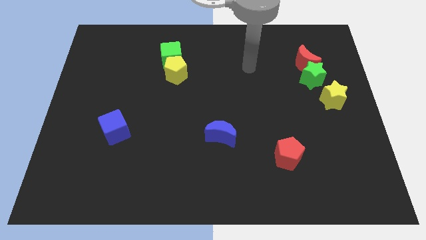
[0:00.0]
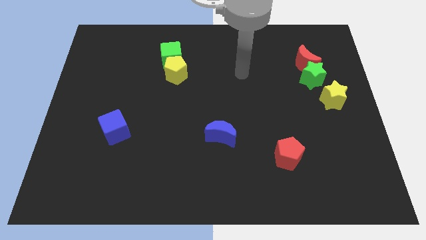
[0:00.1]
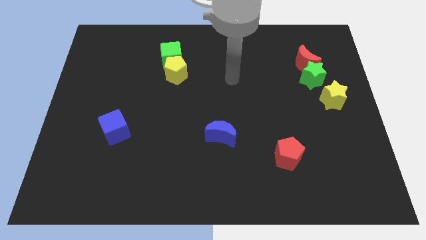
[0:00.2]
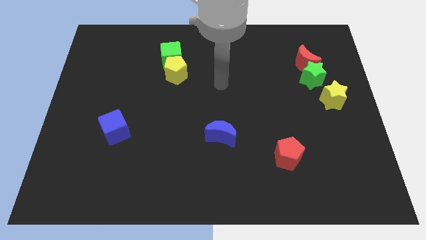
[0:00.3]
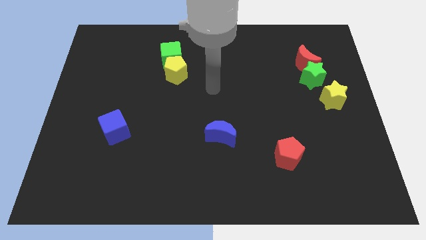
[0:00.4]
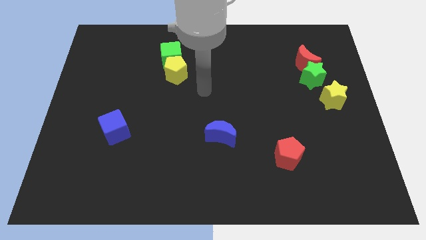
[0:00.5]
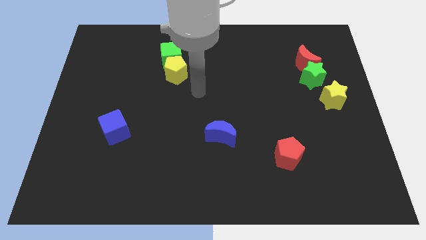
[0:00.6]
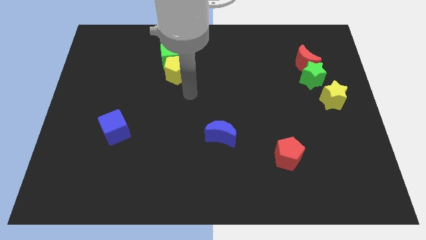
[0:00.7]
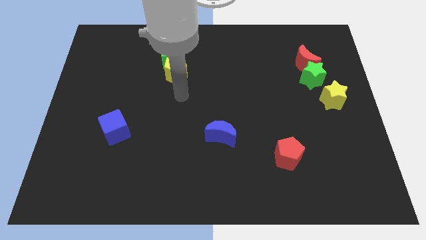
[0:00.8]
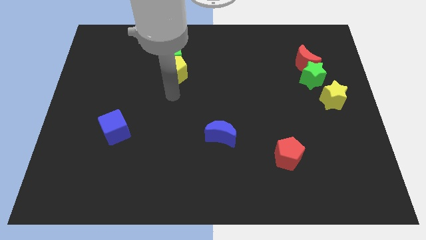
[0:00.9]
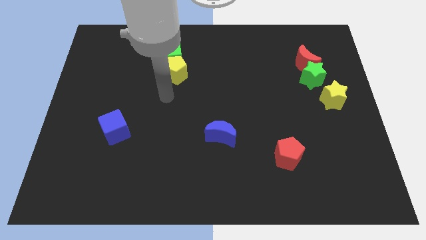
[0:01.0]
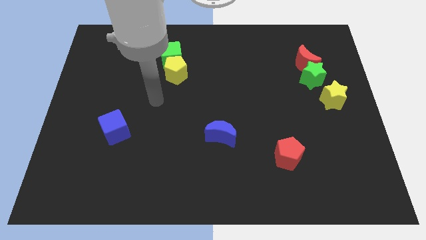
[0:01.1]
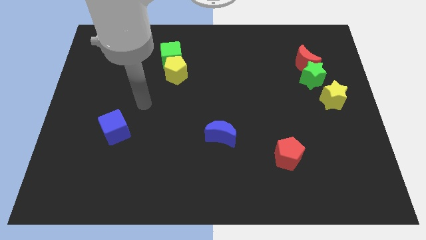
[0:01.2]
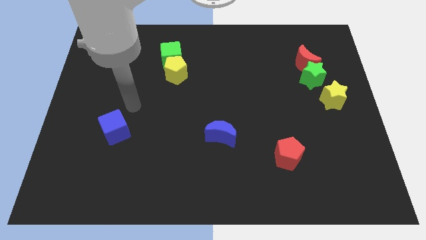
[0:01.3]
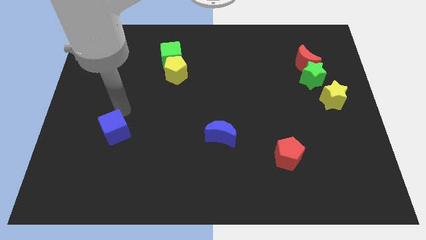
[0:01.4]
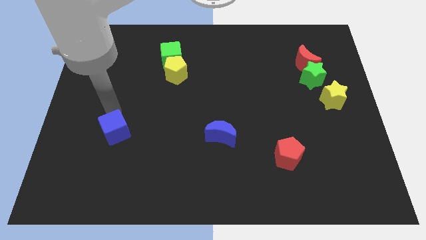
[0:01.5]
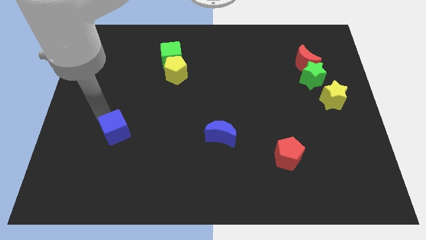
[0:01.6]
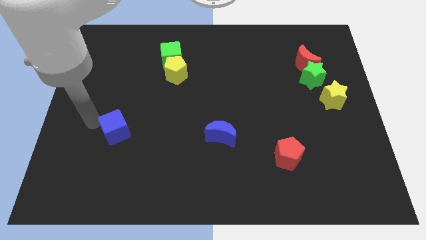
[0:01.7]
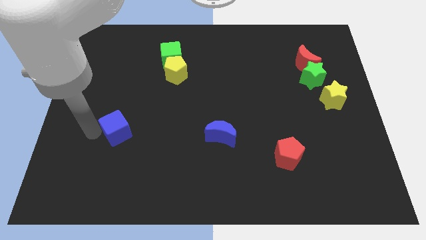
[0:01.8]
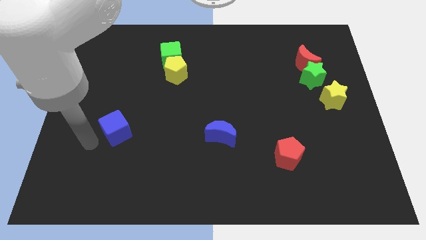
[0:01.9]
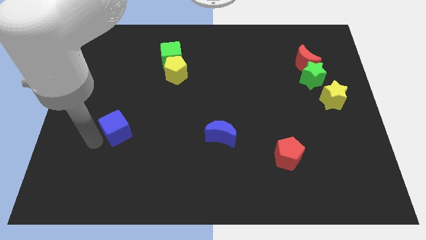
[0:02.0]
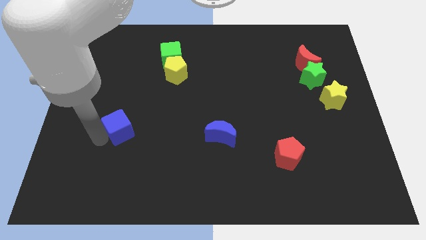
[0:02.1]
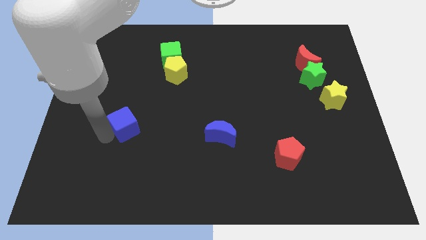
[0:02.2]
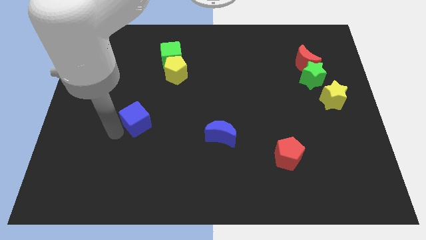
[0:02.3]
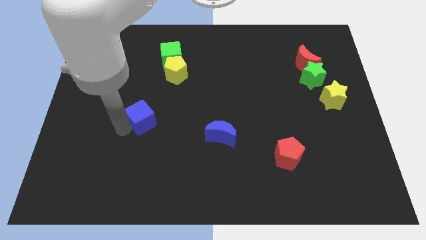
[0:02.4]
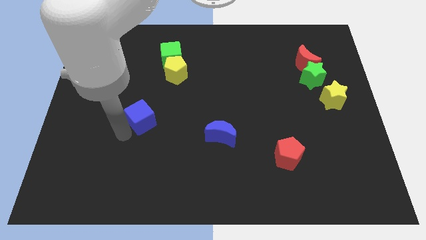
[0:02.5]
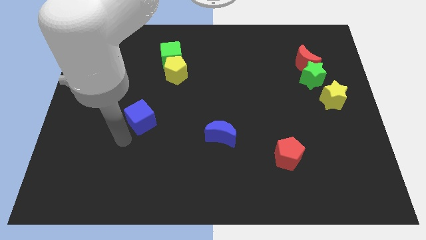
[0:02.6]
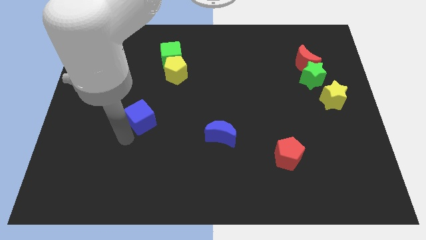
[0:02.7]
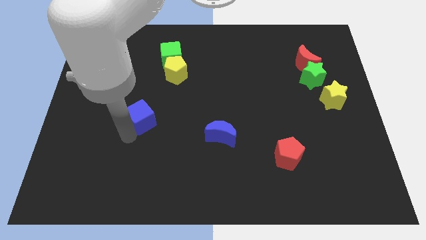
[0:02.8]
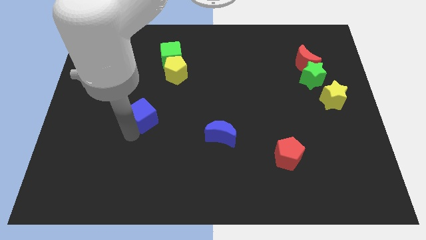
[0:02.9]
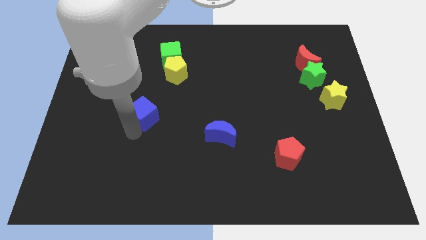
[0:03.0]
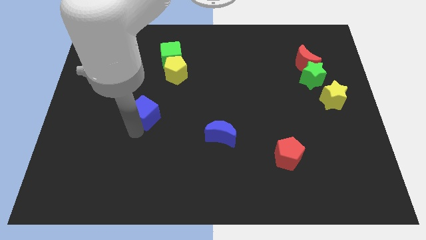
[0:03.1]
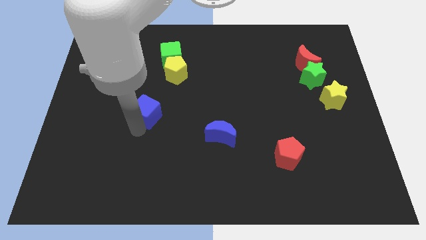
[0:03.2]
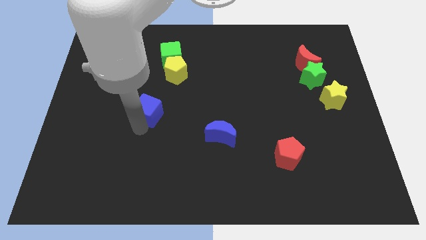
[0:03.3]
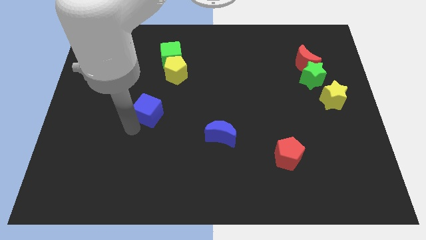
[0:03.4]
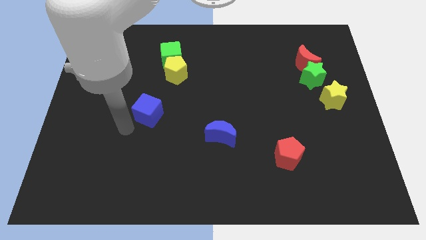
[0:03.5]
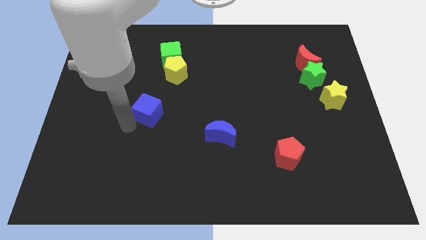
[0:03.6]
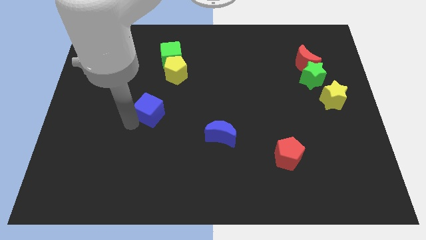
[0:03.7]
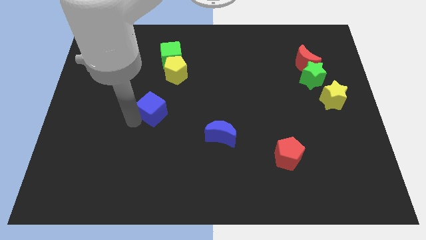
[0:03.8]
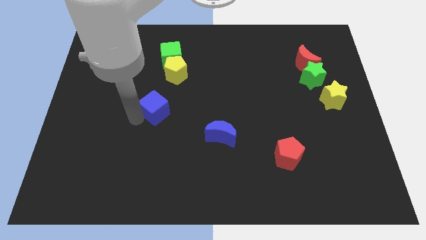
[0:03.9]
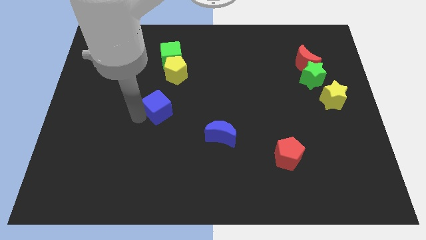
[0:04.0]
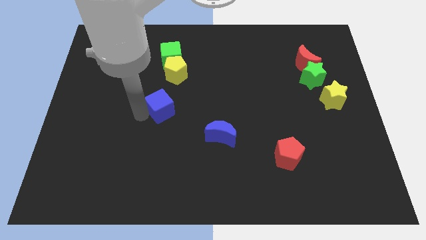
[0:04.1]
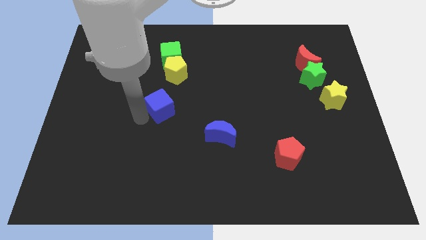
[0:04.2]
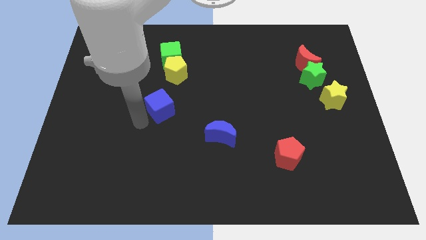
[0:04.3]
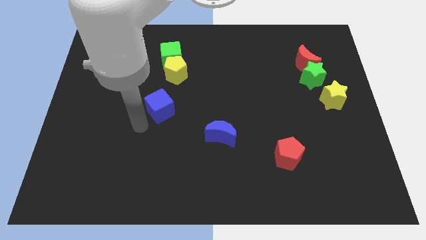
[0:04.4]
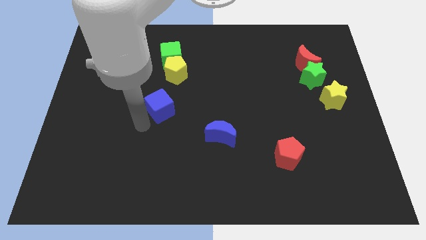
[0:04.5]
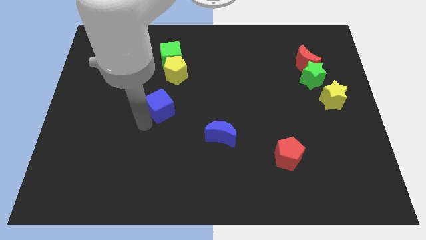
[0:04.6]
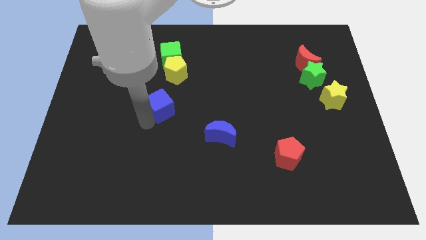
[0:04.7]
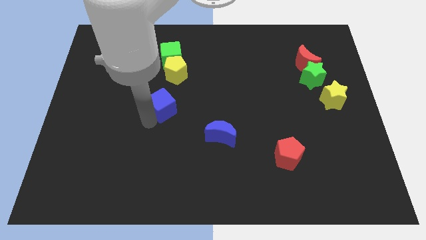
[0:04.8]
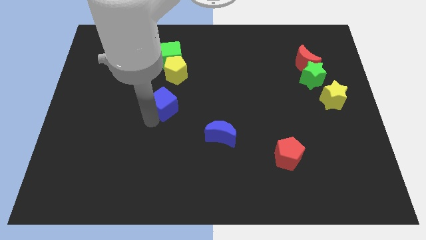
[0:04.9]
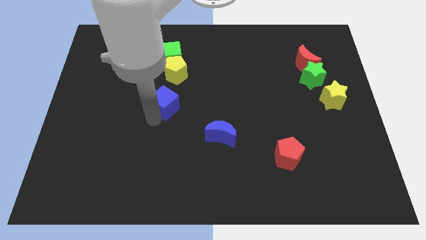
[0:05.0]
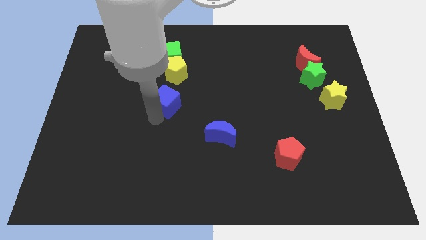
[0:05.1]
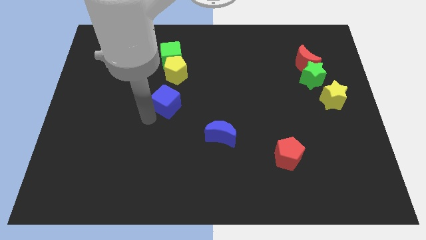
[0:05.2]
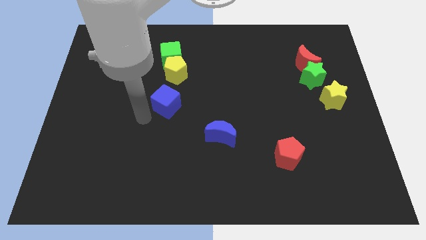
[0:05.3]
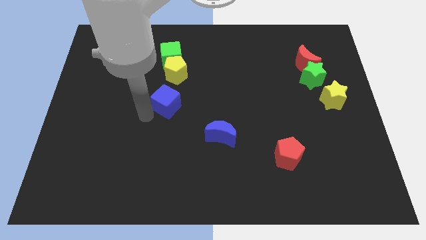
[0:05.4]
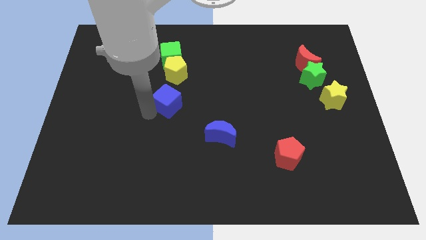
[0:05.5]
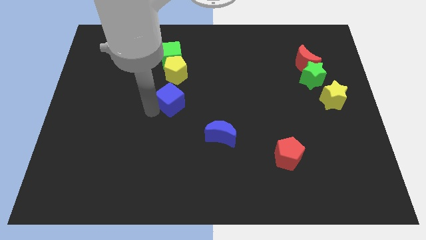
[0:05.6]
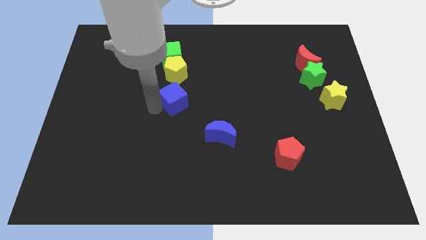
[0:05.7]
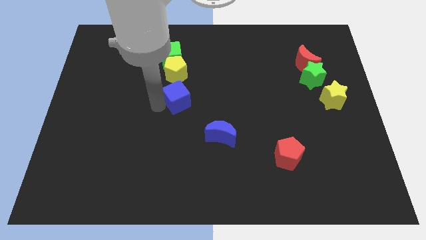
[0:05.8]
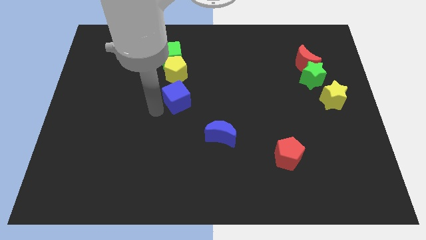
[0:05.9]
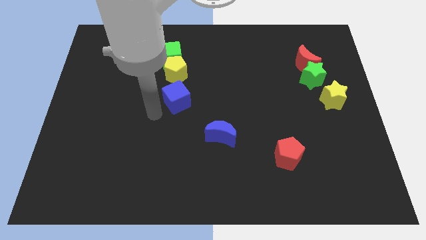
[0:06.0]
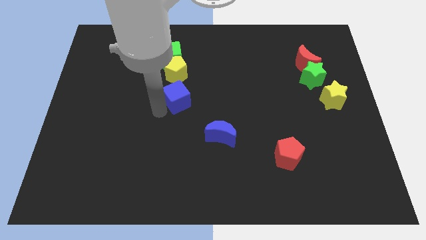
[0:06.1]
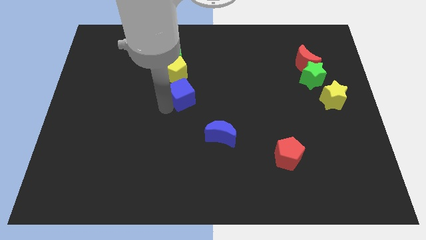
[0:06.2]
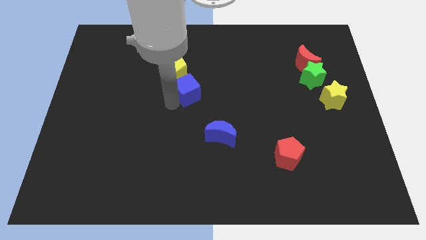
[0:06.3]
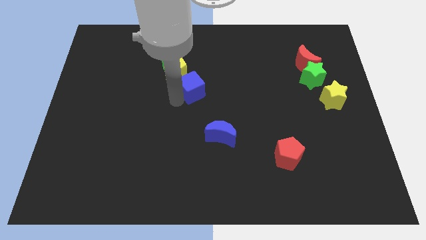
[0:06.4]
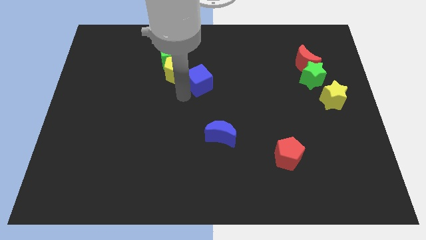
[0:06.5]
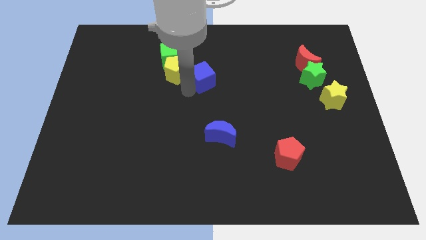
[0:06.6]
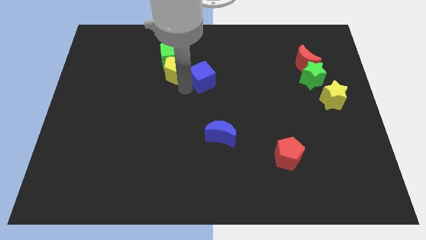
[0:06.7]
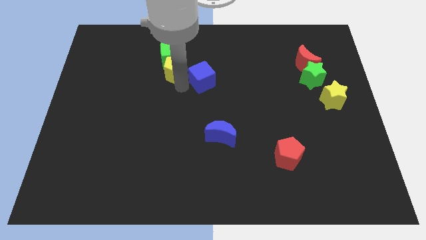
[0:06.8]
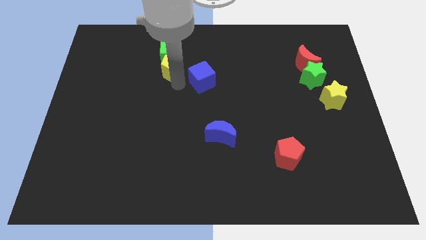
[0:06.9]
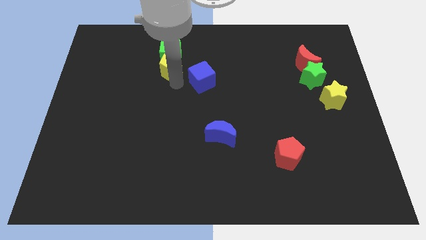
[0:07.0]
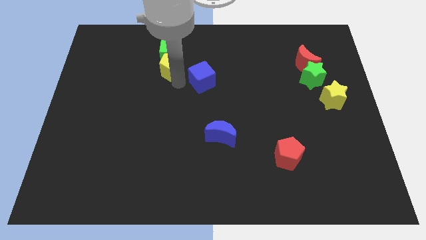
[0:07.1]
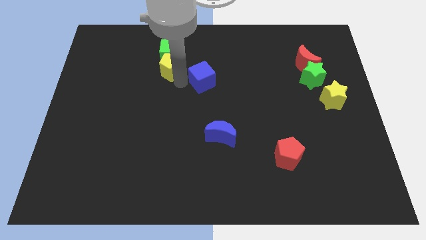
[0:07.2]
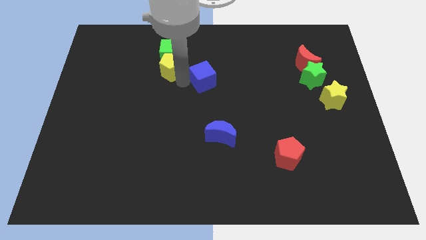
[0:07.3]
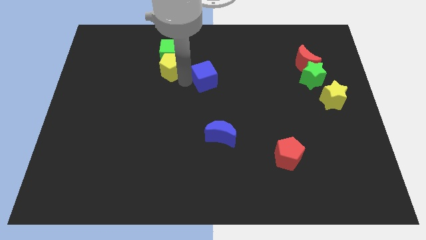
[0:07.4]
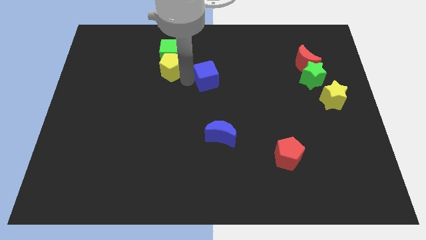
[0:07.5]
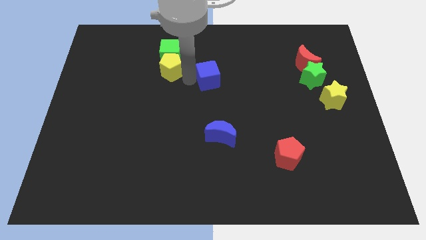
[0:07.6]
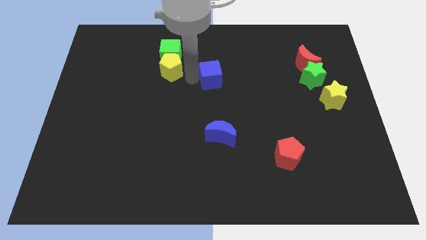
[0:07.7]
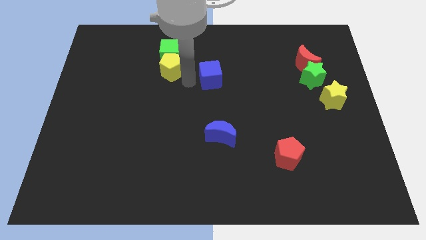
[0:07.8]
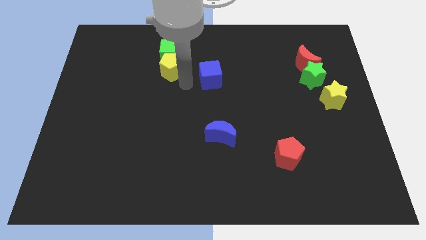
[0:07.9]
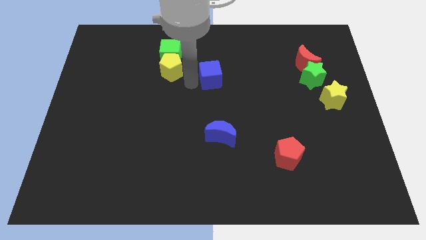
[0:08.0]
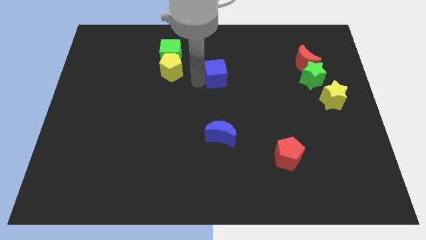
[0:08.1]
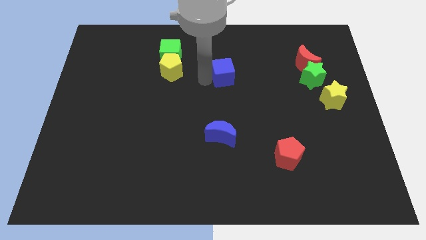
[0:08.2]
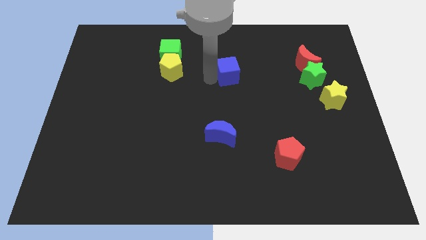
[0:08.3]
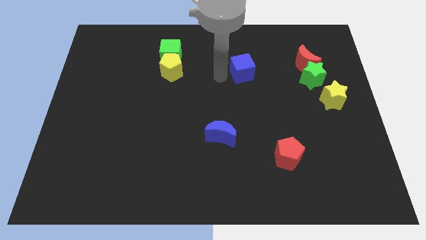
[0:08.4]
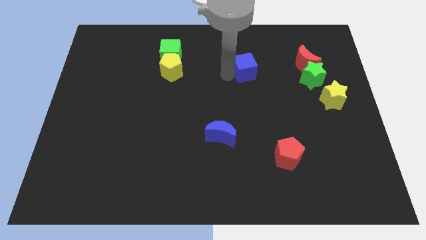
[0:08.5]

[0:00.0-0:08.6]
put the blue cube just left of the red moon
